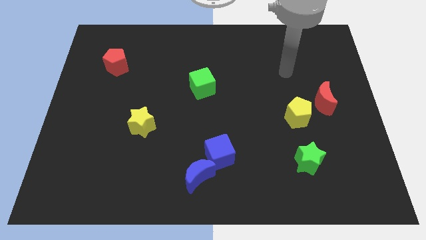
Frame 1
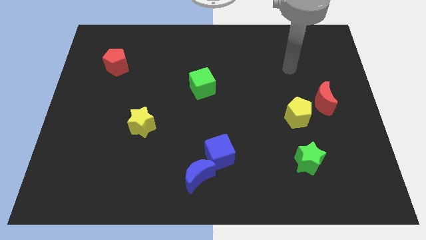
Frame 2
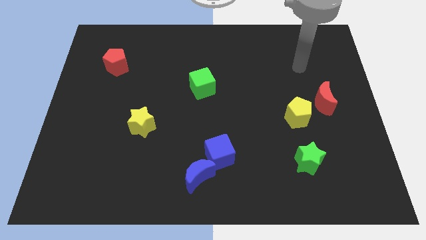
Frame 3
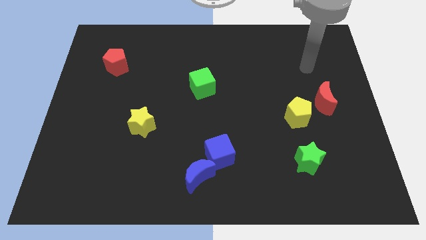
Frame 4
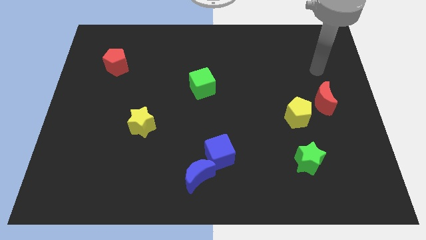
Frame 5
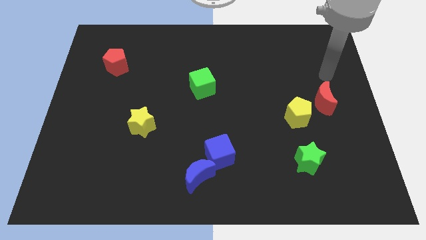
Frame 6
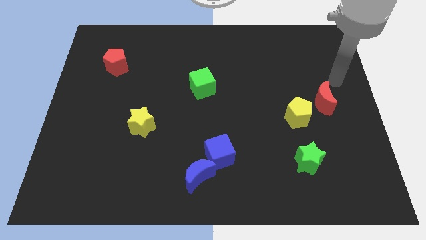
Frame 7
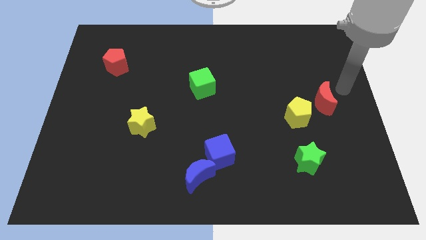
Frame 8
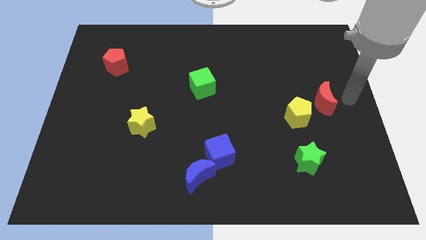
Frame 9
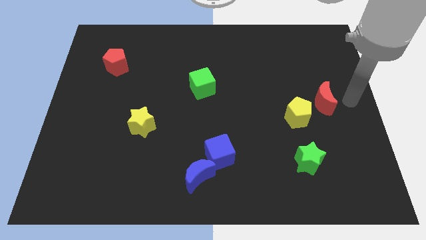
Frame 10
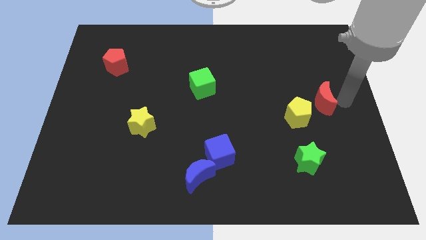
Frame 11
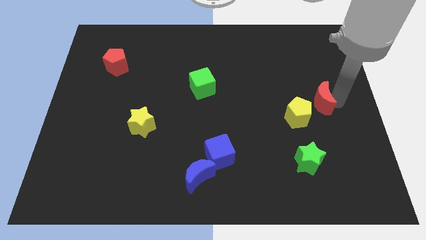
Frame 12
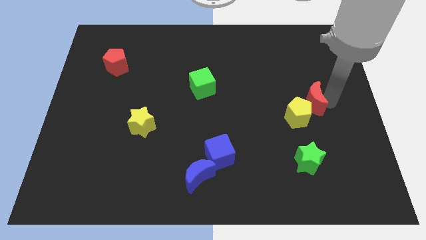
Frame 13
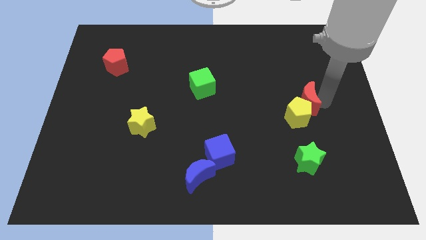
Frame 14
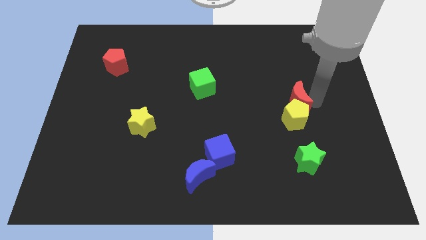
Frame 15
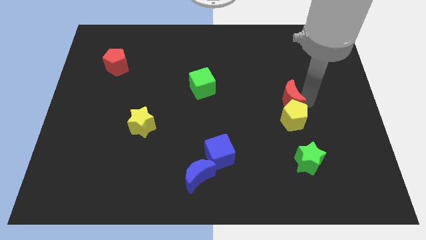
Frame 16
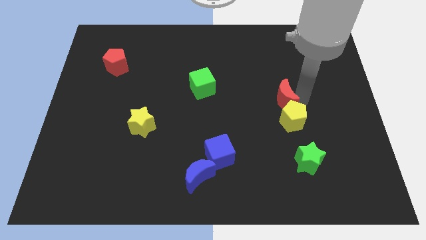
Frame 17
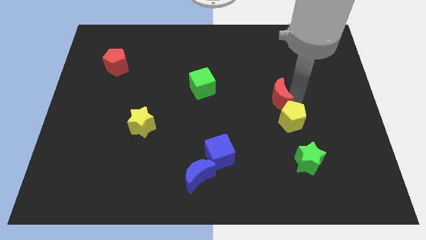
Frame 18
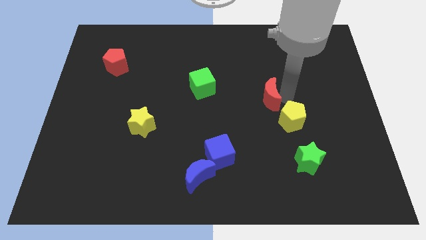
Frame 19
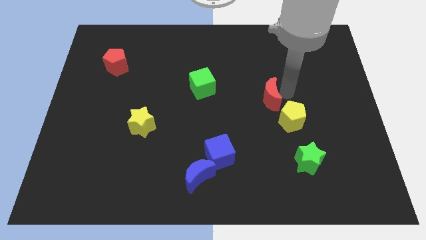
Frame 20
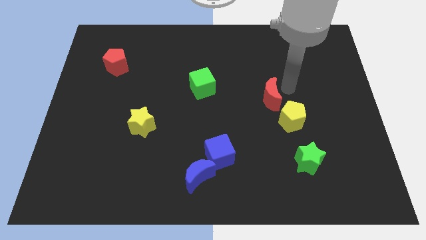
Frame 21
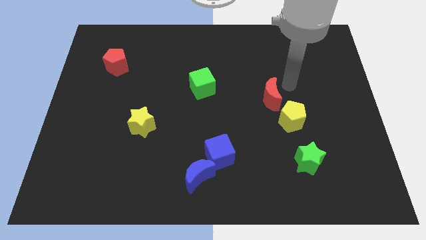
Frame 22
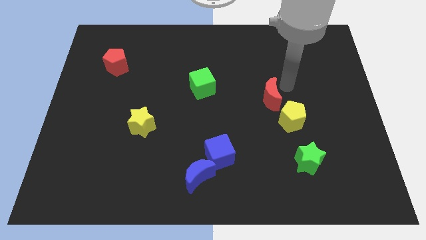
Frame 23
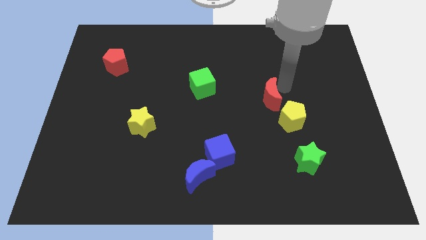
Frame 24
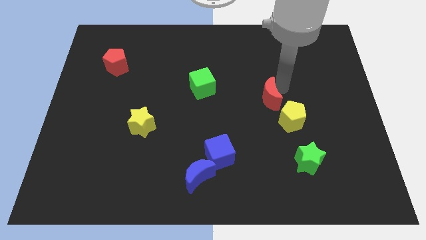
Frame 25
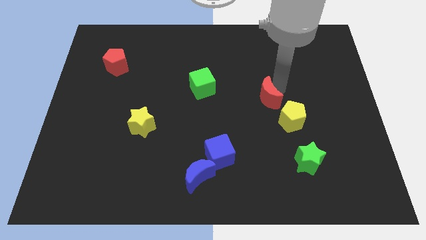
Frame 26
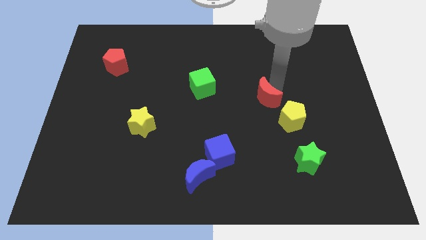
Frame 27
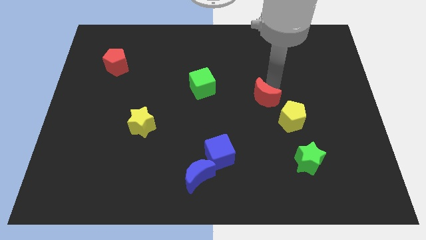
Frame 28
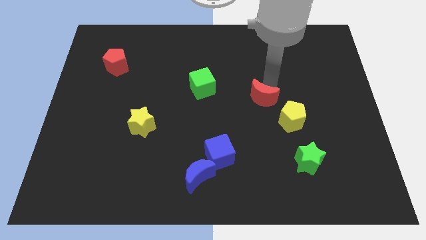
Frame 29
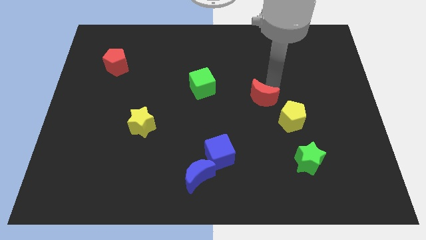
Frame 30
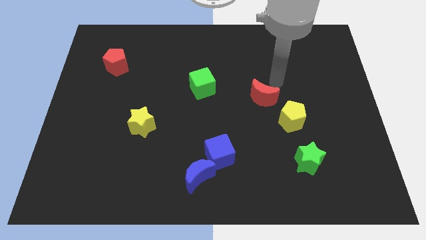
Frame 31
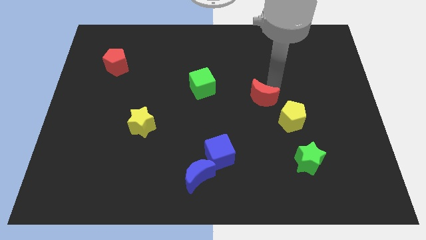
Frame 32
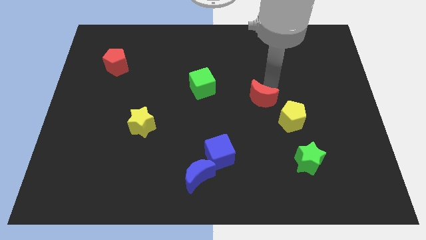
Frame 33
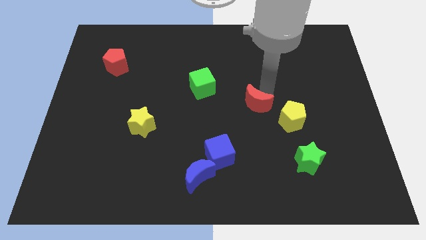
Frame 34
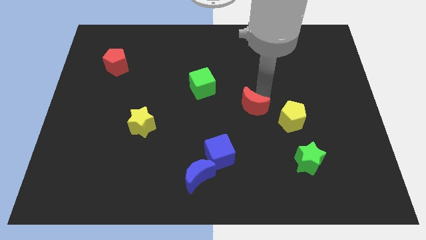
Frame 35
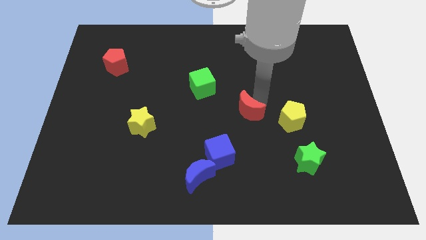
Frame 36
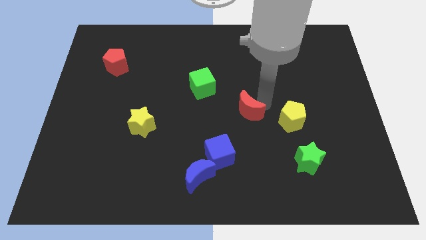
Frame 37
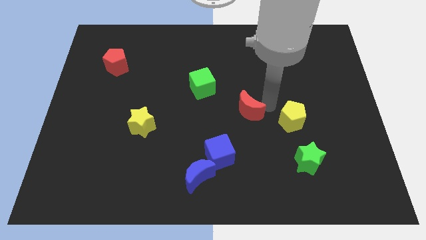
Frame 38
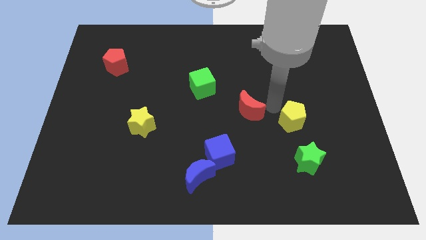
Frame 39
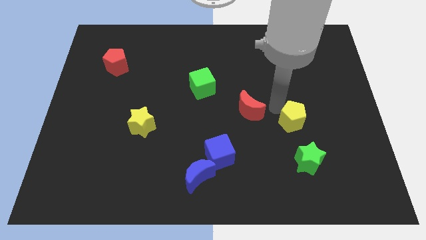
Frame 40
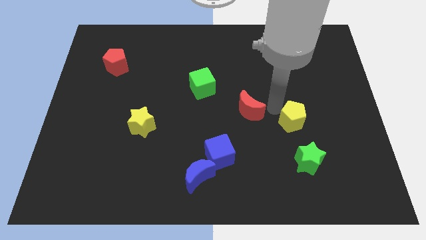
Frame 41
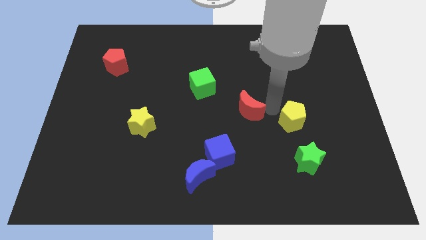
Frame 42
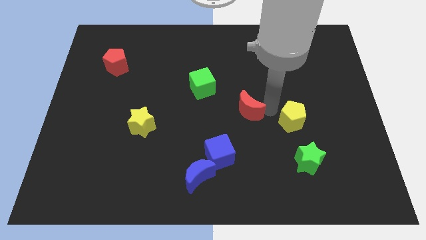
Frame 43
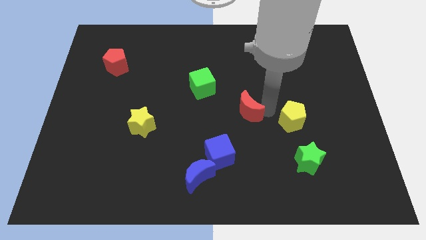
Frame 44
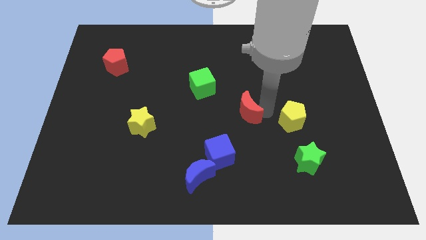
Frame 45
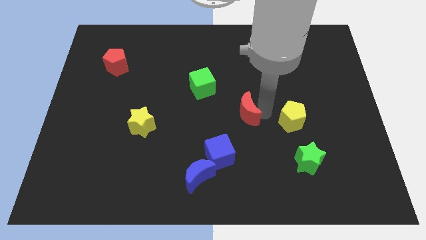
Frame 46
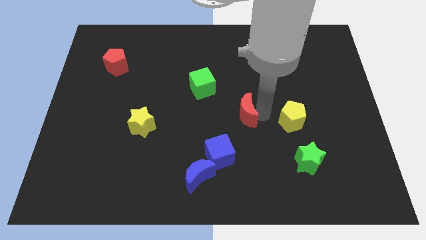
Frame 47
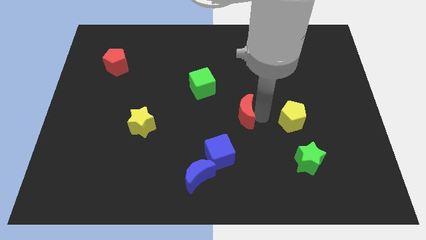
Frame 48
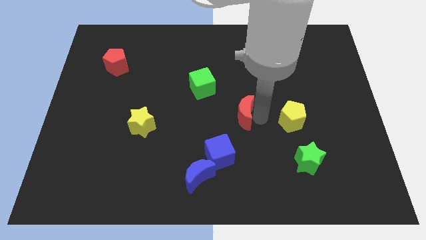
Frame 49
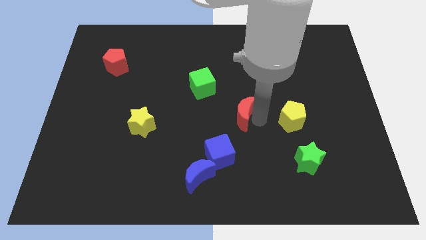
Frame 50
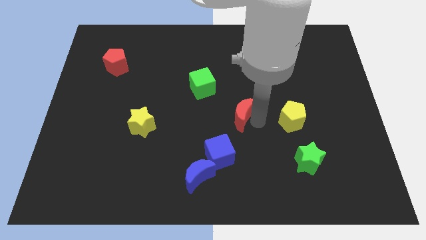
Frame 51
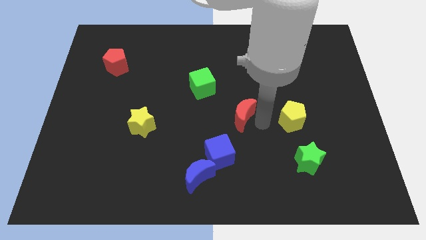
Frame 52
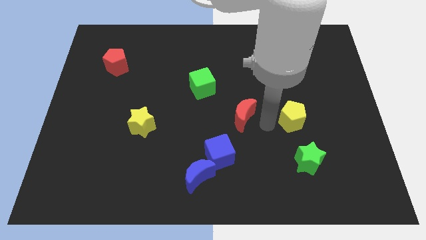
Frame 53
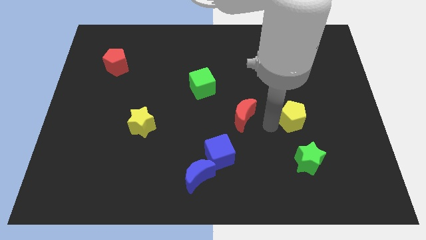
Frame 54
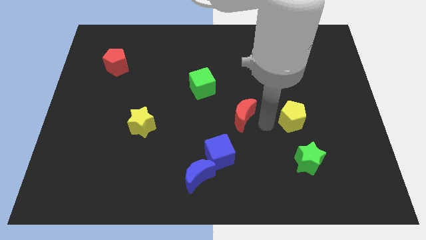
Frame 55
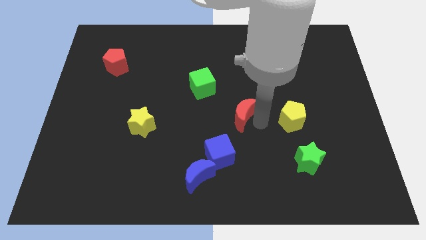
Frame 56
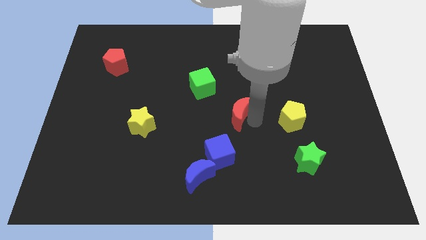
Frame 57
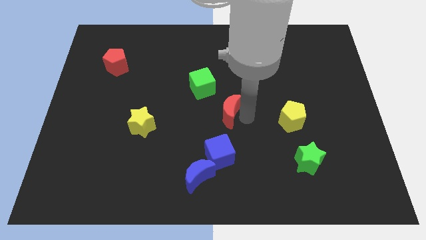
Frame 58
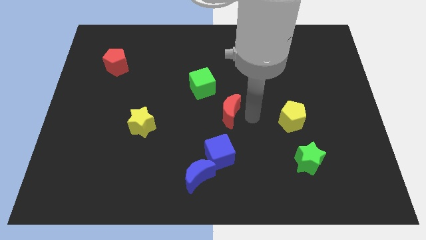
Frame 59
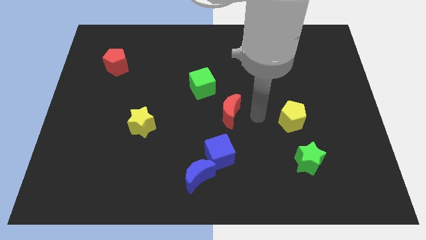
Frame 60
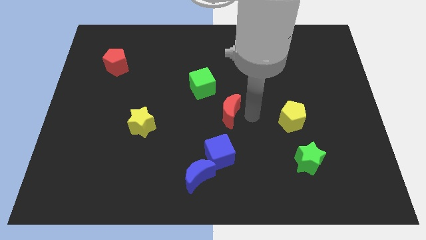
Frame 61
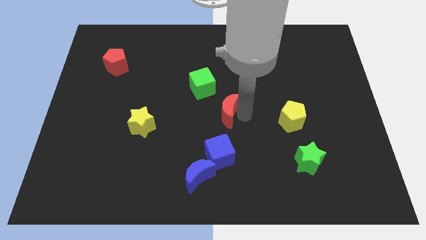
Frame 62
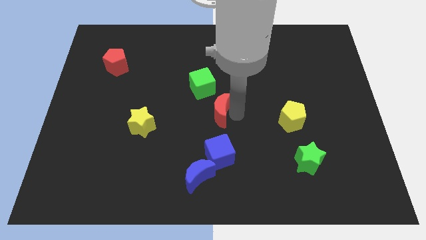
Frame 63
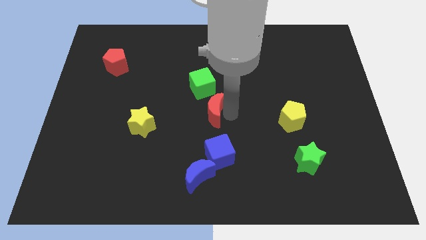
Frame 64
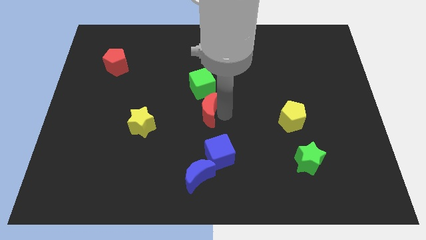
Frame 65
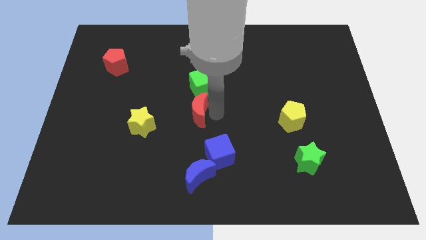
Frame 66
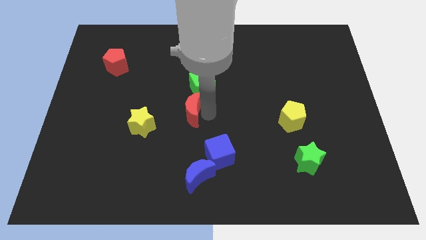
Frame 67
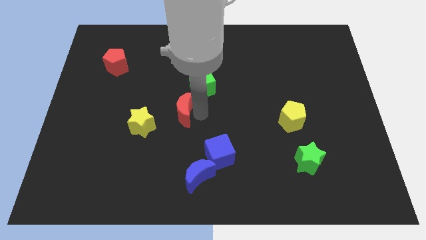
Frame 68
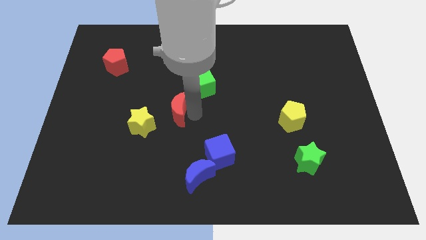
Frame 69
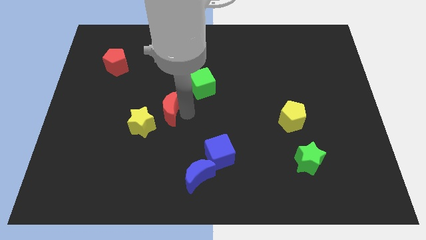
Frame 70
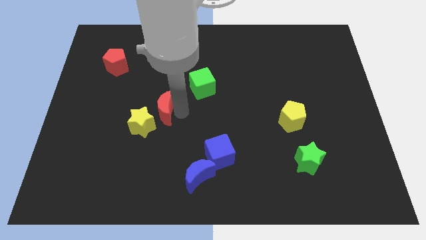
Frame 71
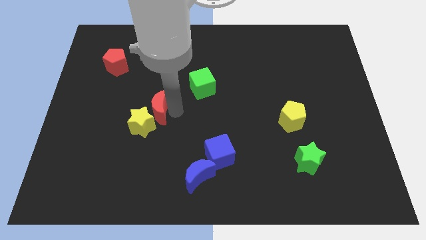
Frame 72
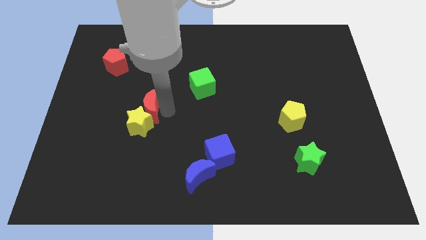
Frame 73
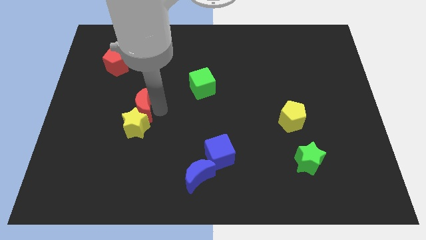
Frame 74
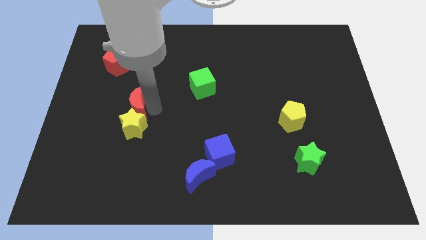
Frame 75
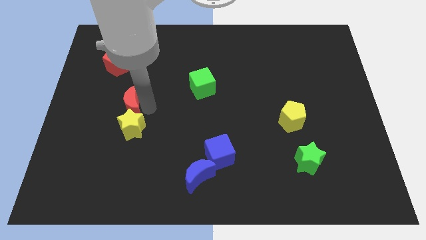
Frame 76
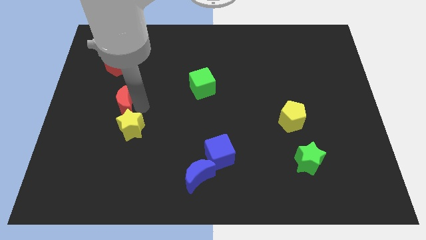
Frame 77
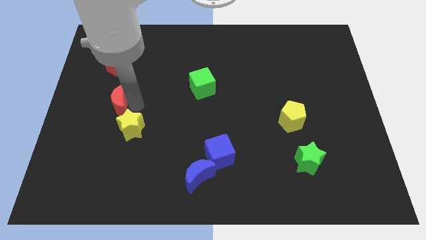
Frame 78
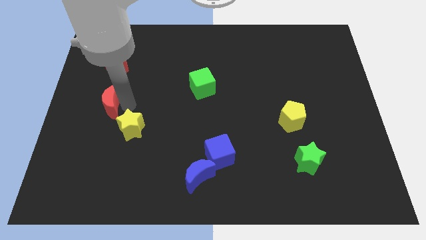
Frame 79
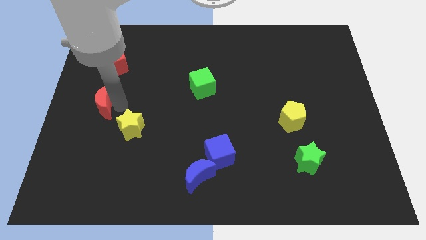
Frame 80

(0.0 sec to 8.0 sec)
push the red moon to the left side of the board
